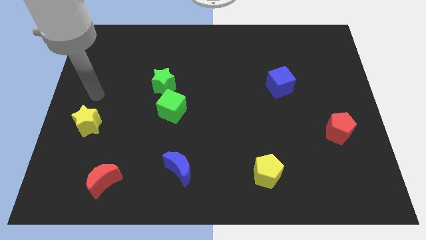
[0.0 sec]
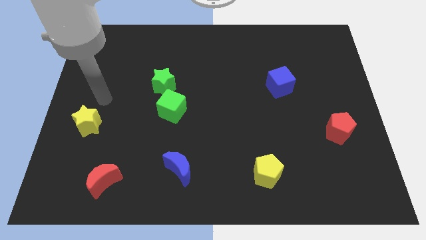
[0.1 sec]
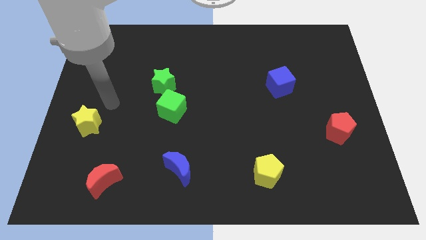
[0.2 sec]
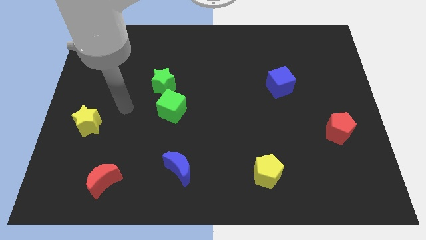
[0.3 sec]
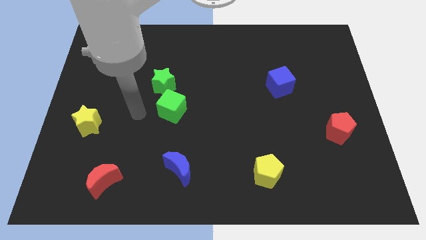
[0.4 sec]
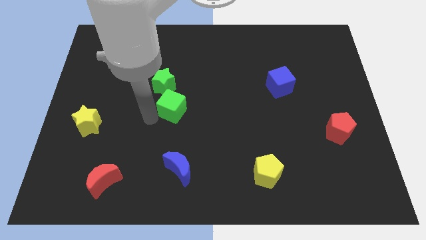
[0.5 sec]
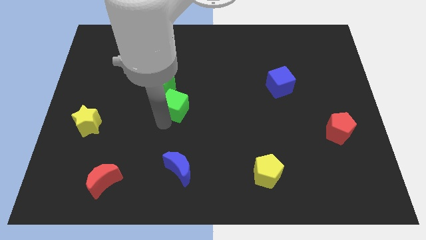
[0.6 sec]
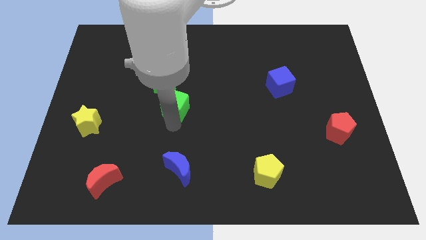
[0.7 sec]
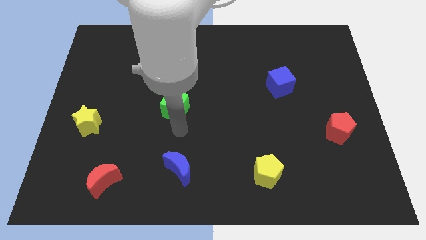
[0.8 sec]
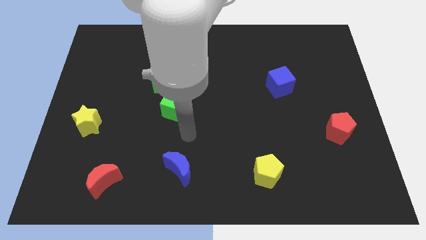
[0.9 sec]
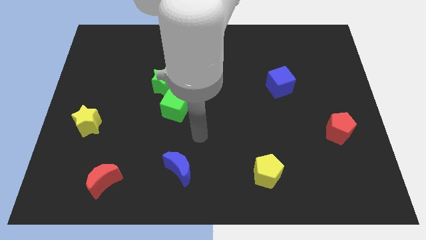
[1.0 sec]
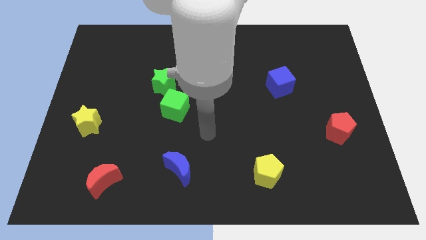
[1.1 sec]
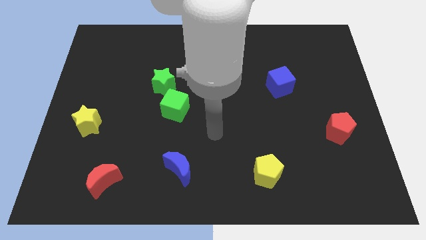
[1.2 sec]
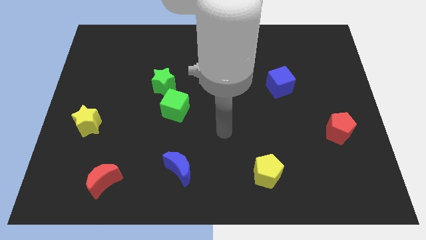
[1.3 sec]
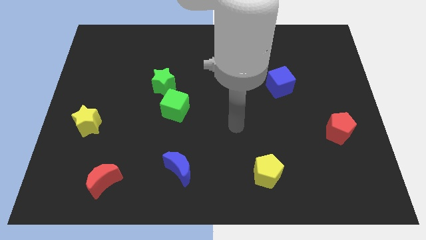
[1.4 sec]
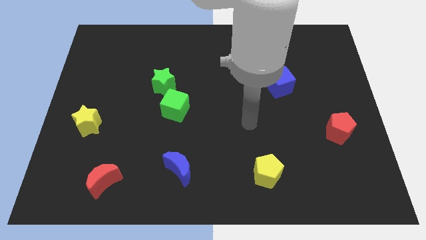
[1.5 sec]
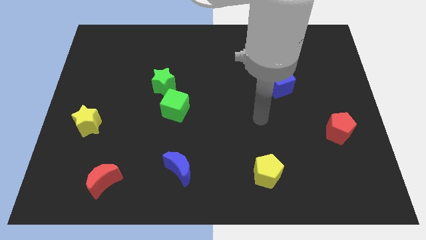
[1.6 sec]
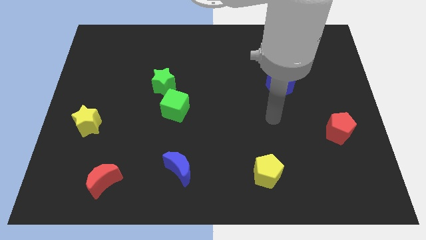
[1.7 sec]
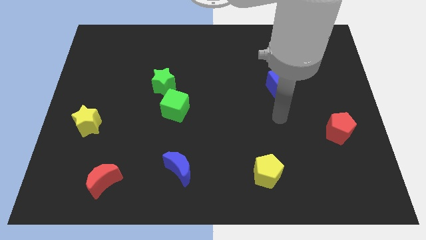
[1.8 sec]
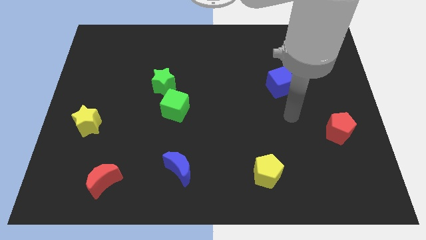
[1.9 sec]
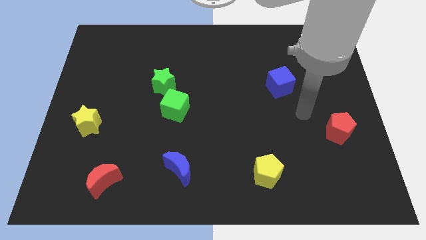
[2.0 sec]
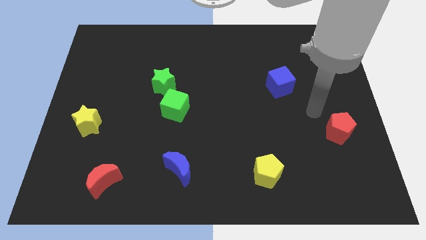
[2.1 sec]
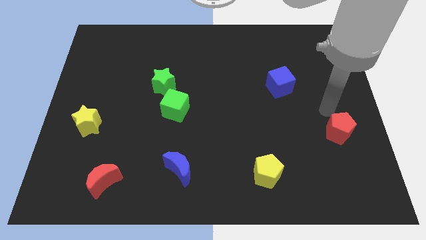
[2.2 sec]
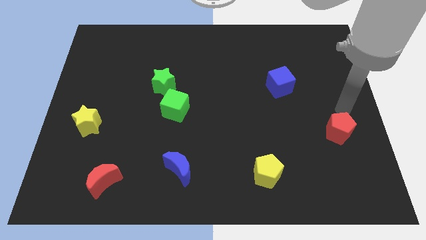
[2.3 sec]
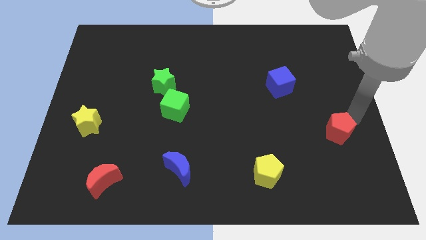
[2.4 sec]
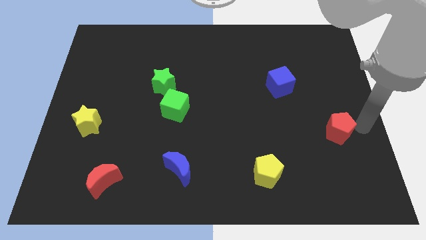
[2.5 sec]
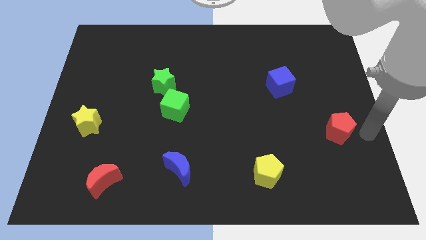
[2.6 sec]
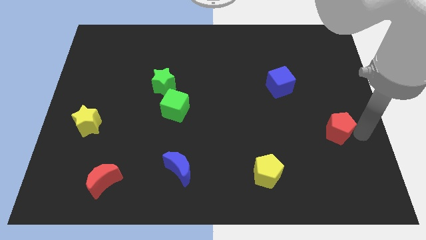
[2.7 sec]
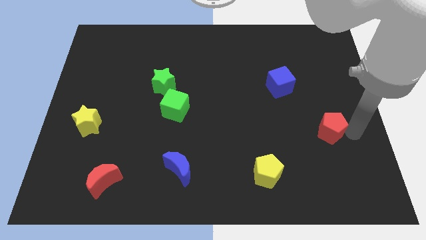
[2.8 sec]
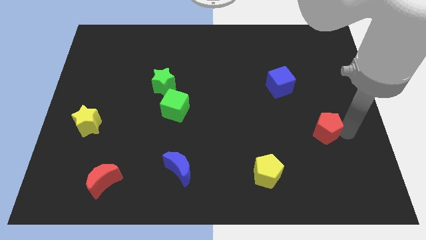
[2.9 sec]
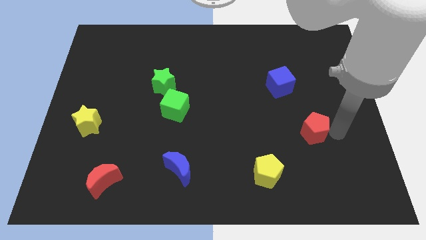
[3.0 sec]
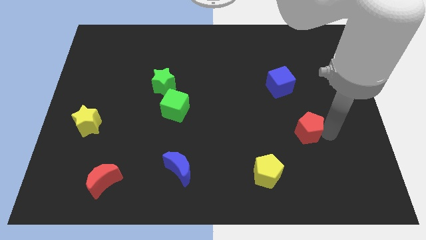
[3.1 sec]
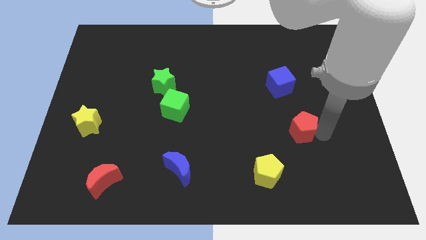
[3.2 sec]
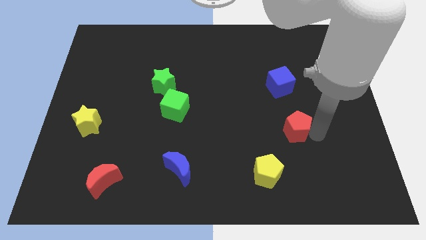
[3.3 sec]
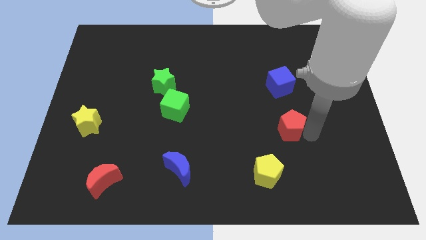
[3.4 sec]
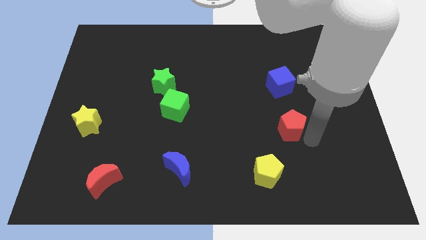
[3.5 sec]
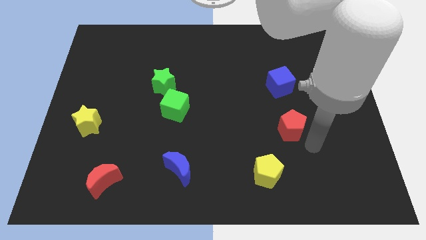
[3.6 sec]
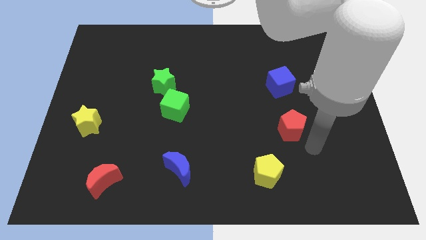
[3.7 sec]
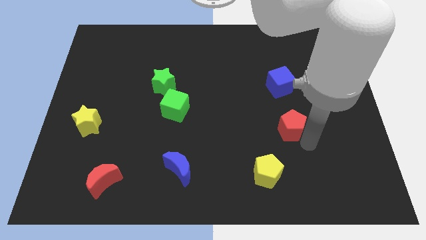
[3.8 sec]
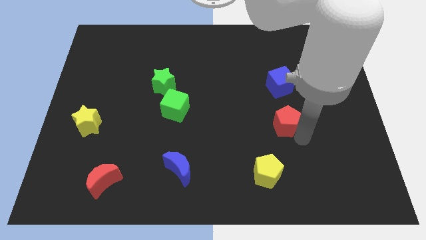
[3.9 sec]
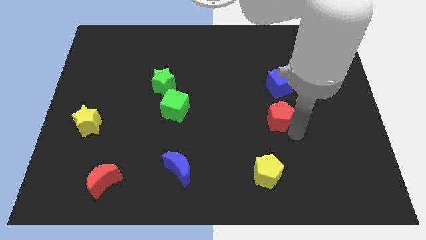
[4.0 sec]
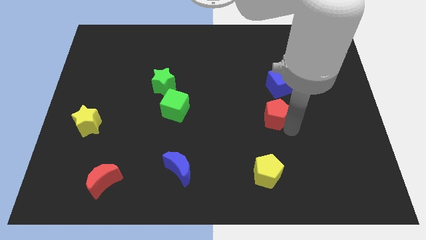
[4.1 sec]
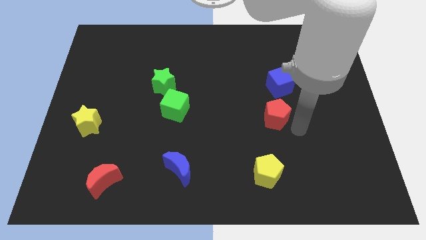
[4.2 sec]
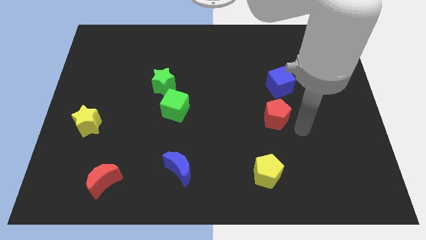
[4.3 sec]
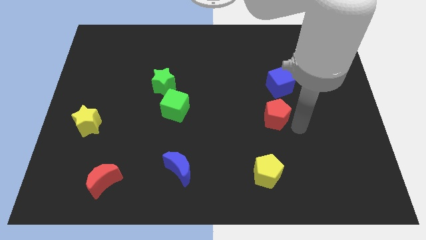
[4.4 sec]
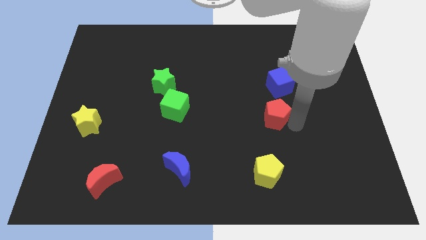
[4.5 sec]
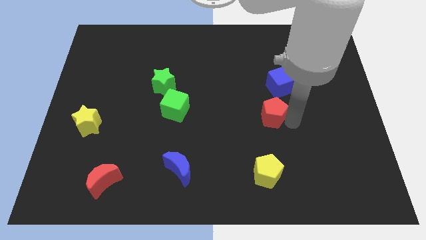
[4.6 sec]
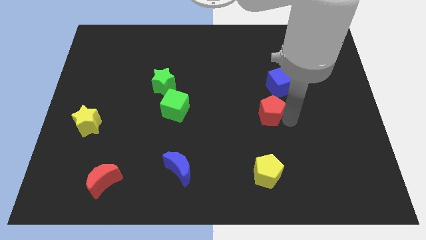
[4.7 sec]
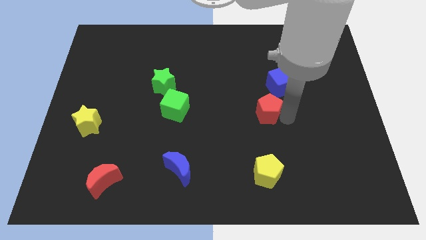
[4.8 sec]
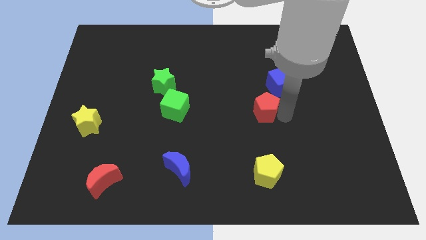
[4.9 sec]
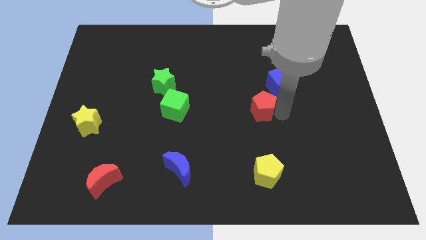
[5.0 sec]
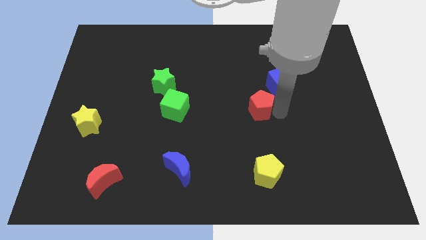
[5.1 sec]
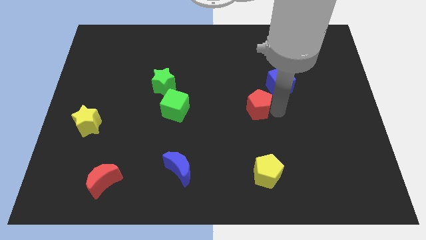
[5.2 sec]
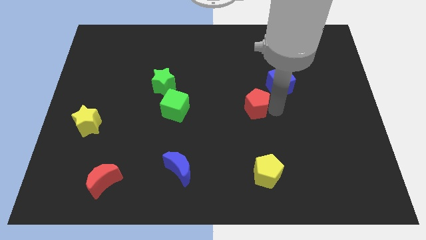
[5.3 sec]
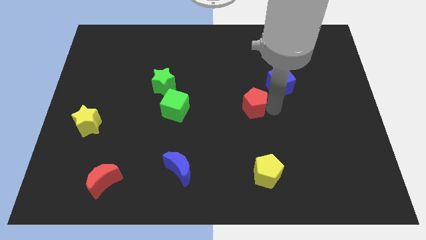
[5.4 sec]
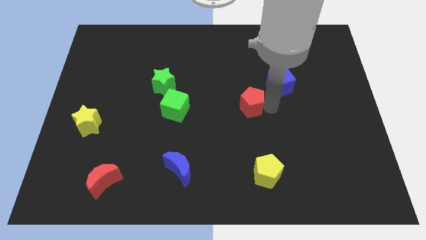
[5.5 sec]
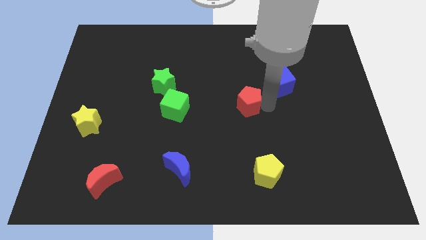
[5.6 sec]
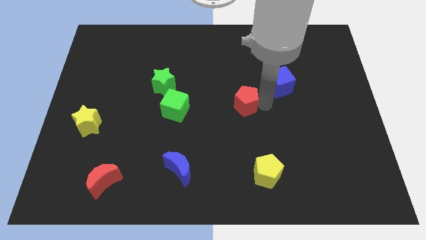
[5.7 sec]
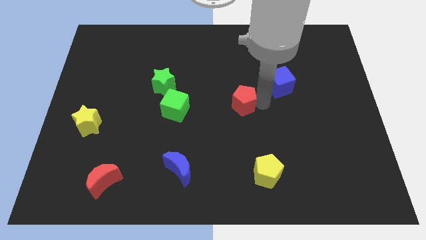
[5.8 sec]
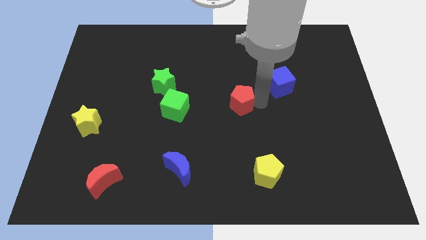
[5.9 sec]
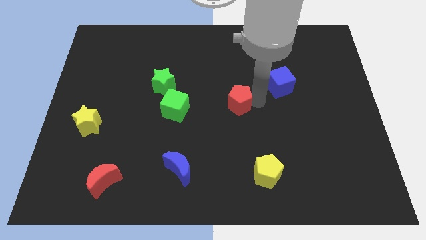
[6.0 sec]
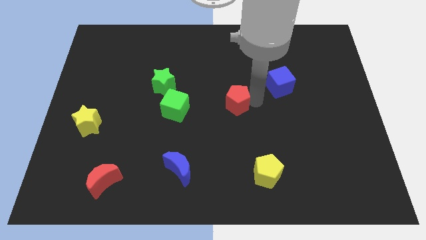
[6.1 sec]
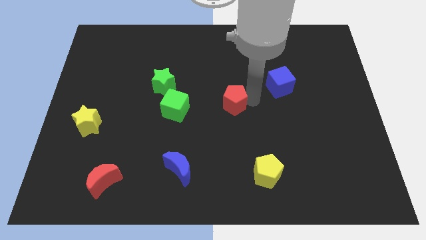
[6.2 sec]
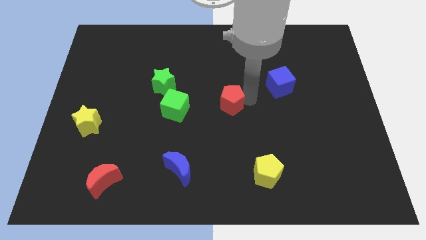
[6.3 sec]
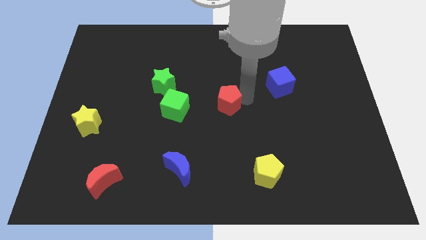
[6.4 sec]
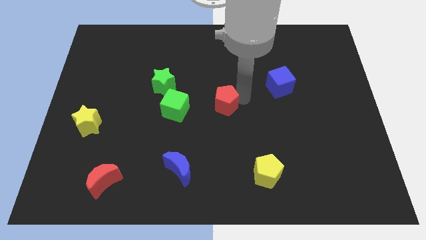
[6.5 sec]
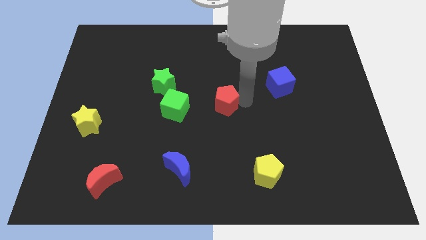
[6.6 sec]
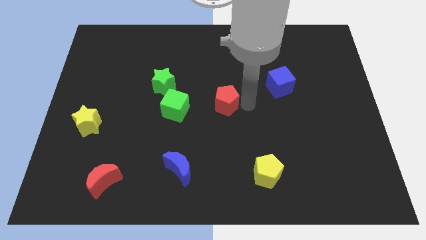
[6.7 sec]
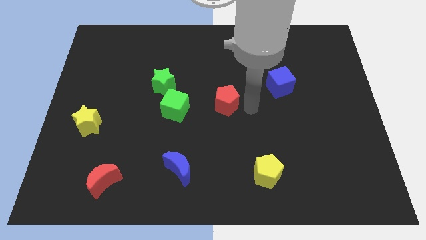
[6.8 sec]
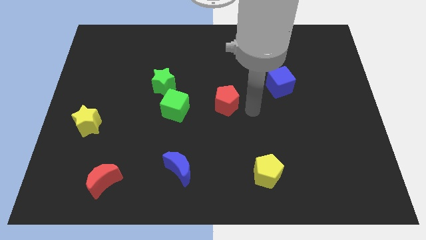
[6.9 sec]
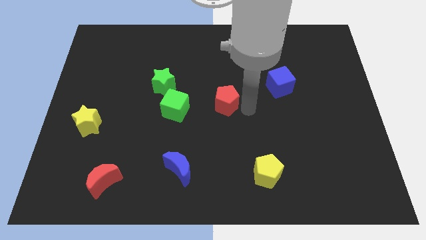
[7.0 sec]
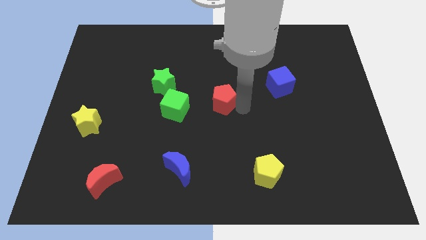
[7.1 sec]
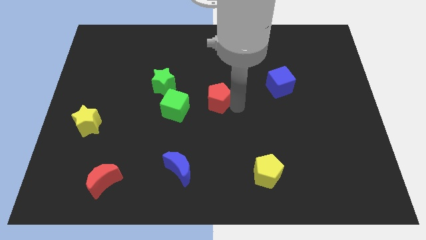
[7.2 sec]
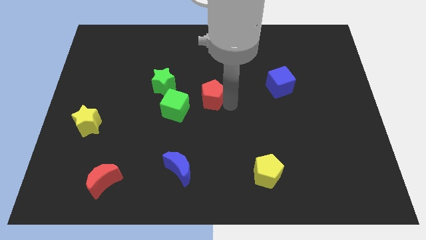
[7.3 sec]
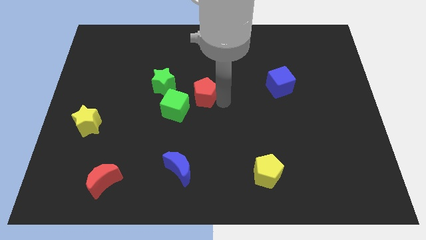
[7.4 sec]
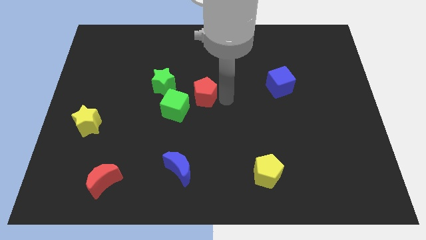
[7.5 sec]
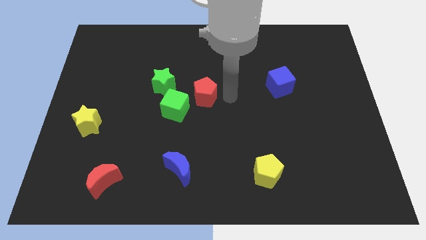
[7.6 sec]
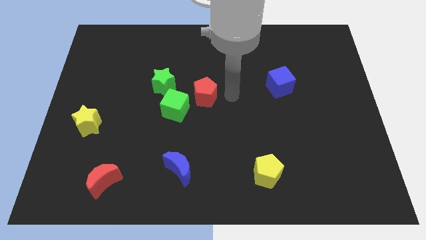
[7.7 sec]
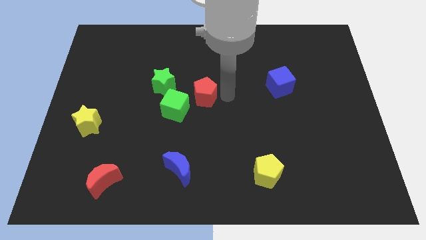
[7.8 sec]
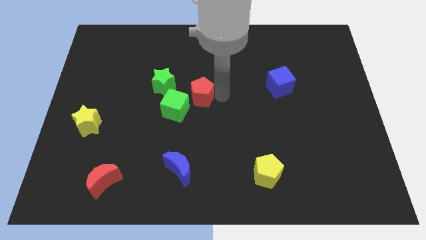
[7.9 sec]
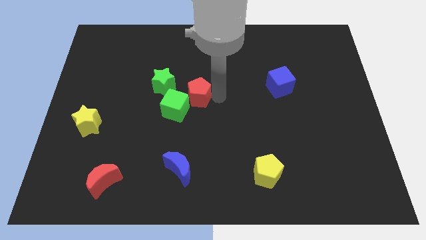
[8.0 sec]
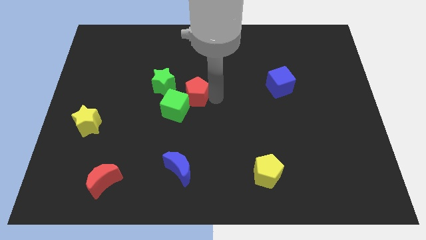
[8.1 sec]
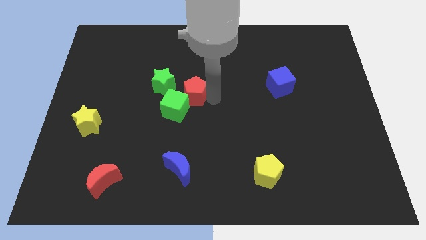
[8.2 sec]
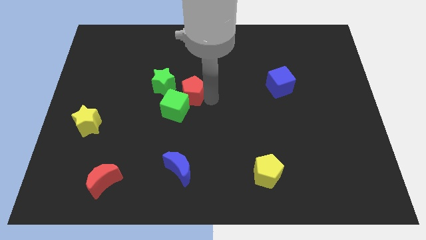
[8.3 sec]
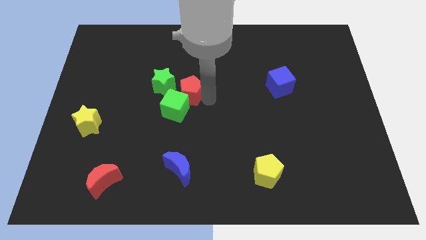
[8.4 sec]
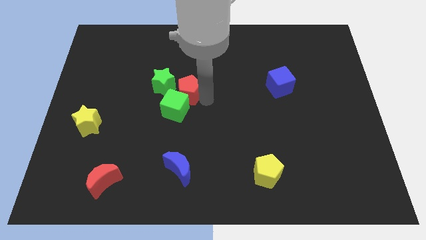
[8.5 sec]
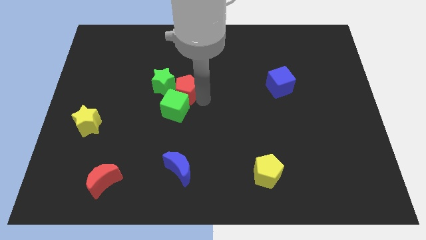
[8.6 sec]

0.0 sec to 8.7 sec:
move the red pentagon next to the green star
